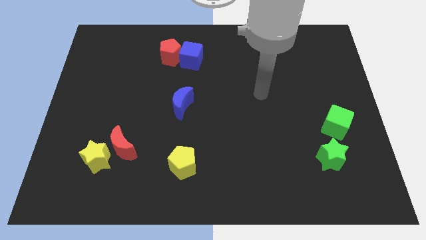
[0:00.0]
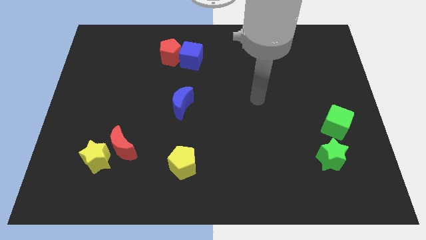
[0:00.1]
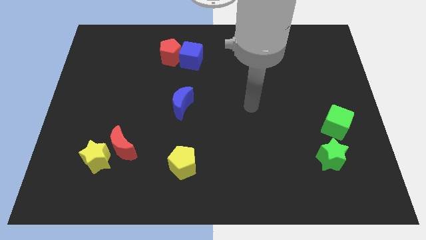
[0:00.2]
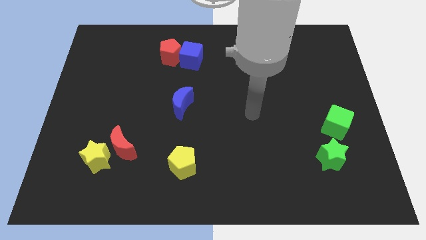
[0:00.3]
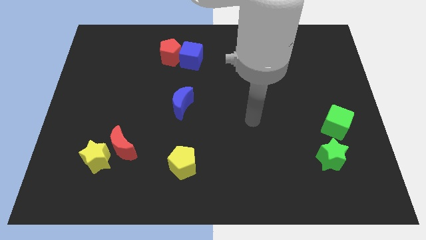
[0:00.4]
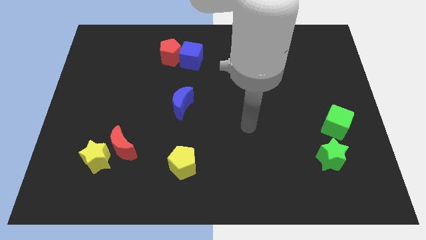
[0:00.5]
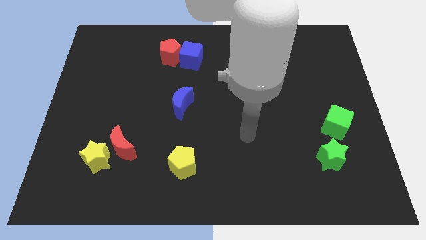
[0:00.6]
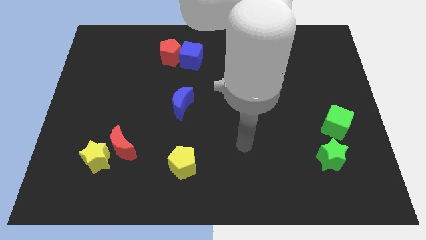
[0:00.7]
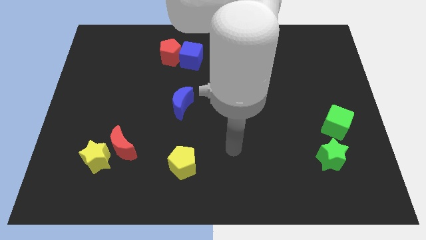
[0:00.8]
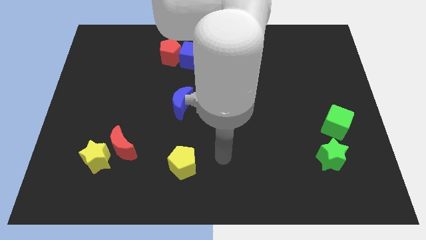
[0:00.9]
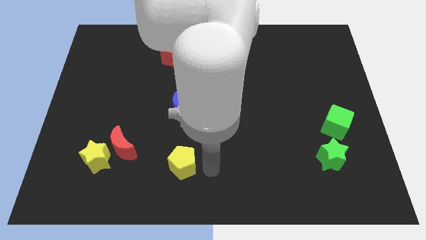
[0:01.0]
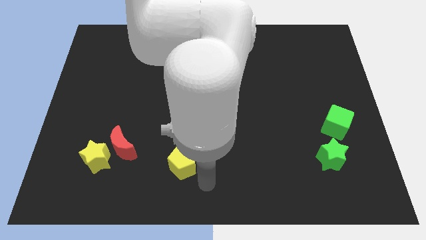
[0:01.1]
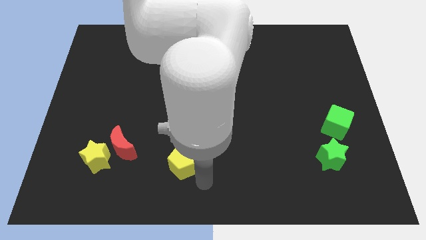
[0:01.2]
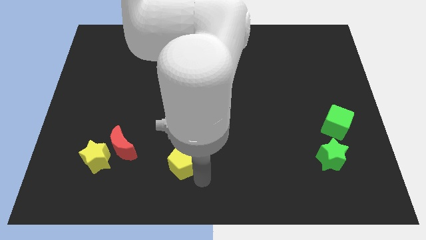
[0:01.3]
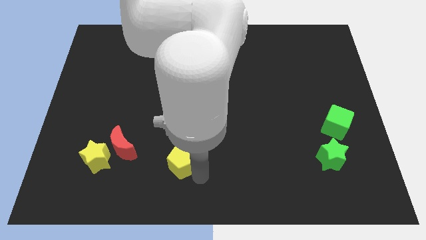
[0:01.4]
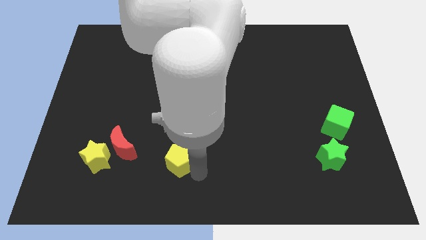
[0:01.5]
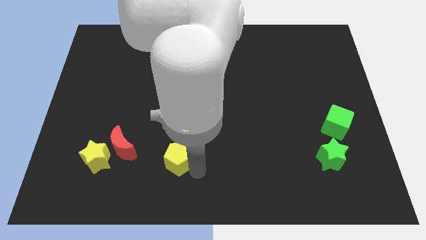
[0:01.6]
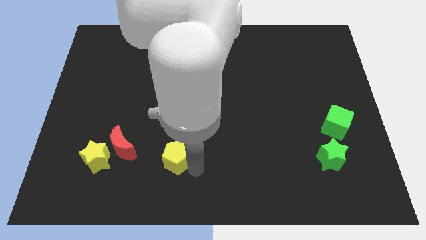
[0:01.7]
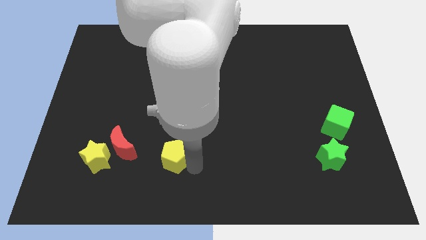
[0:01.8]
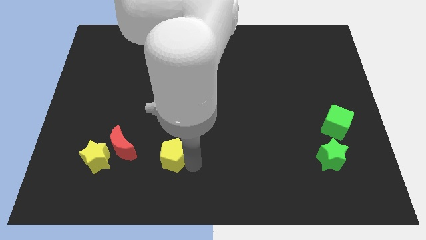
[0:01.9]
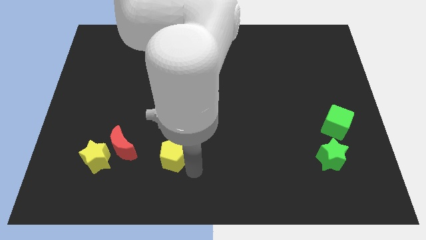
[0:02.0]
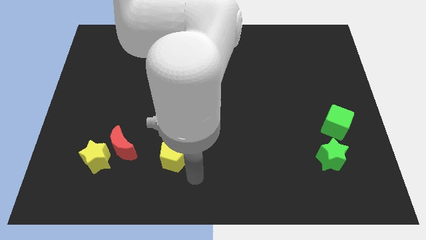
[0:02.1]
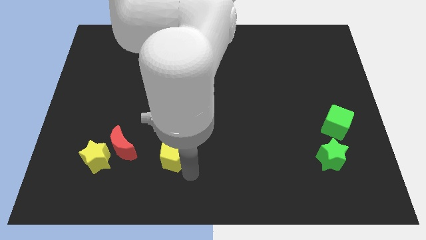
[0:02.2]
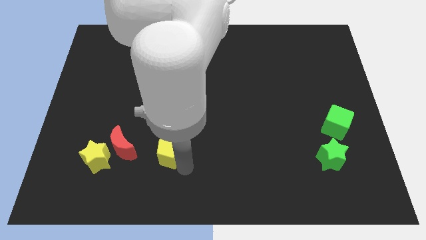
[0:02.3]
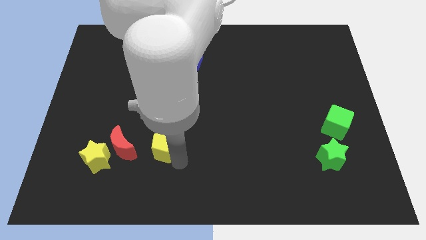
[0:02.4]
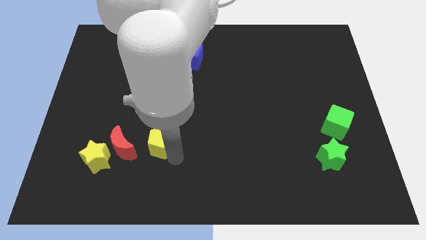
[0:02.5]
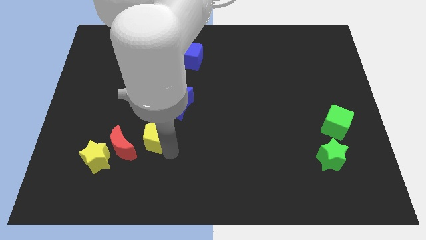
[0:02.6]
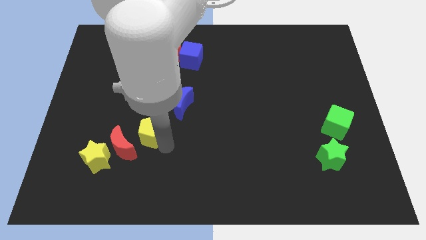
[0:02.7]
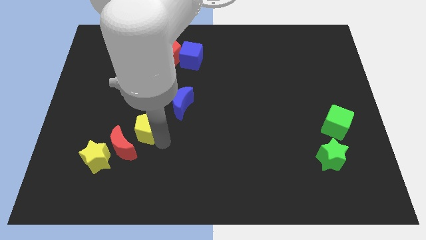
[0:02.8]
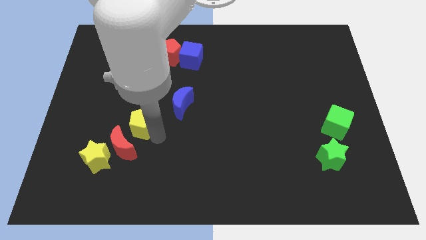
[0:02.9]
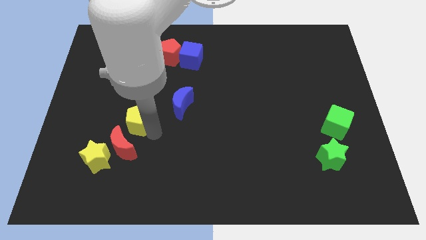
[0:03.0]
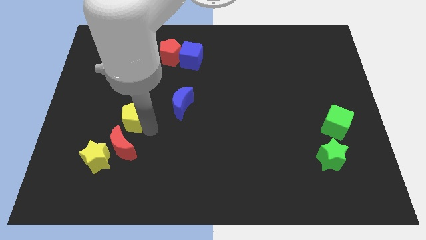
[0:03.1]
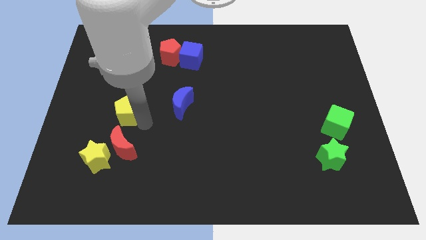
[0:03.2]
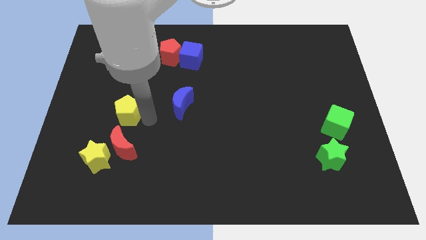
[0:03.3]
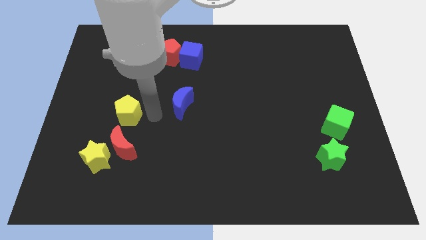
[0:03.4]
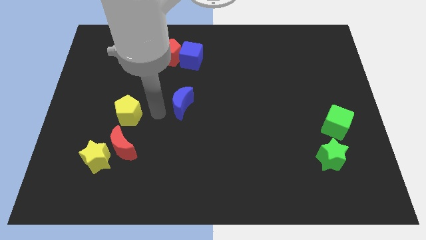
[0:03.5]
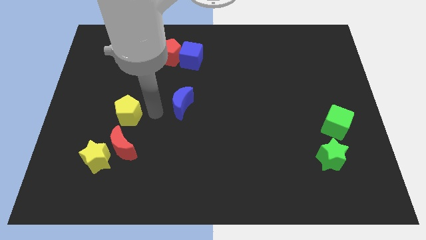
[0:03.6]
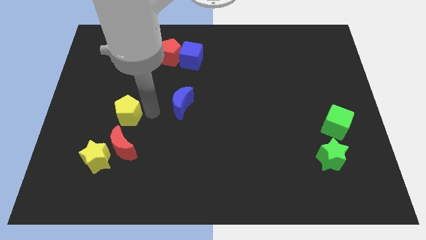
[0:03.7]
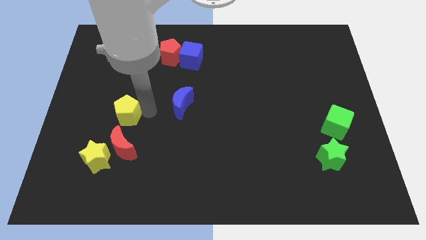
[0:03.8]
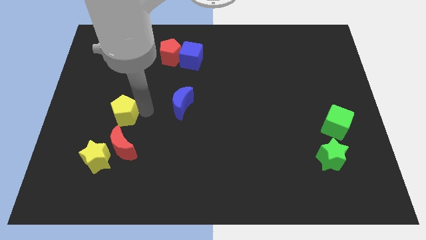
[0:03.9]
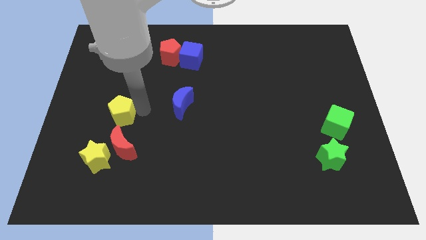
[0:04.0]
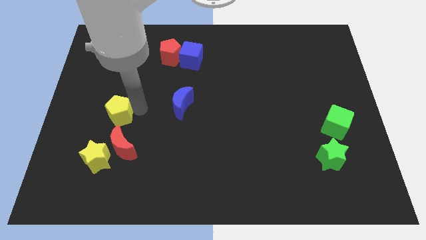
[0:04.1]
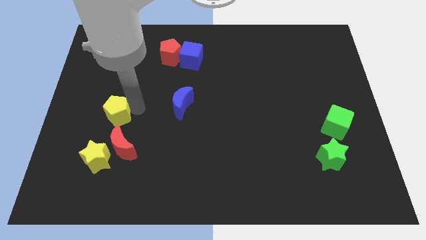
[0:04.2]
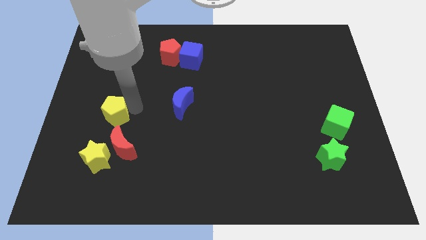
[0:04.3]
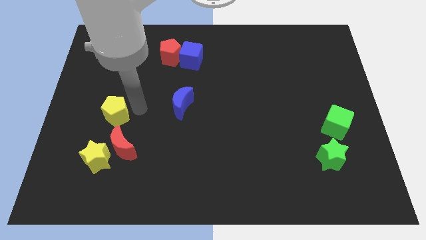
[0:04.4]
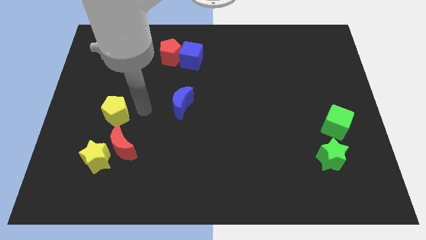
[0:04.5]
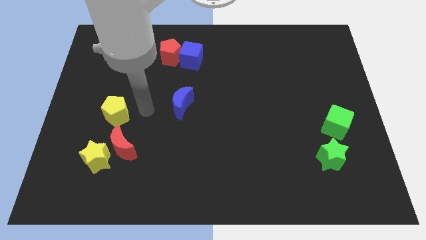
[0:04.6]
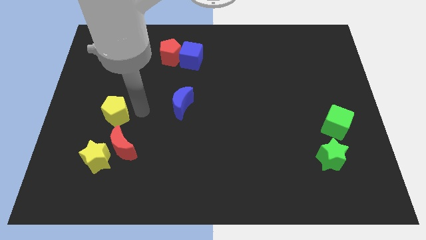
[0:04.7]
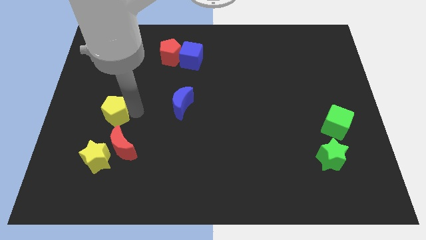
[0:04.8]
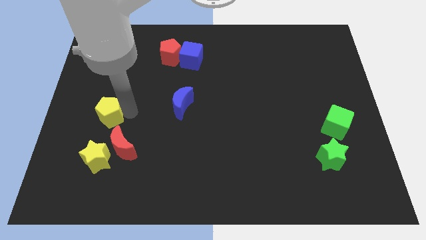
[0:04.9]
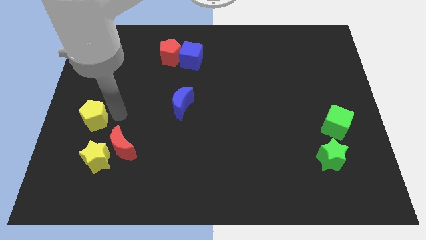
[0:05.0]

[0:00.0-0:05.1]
push the yellow pentagon to the center left

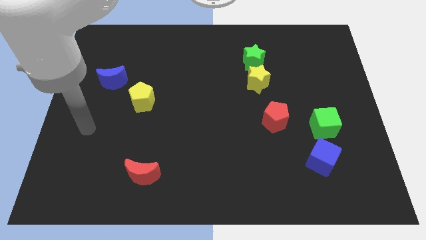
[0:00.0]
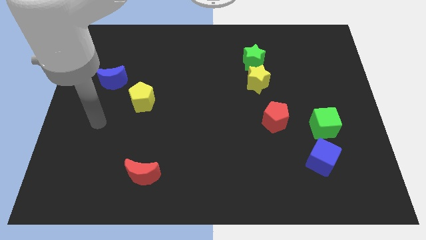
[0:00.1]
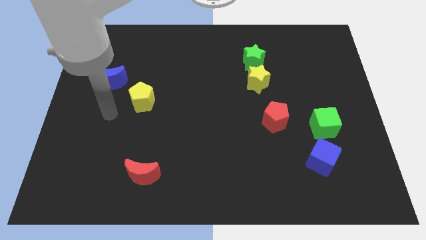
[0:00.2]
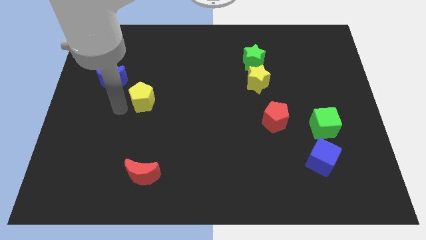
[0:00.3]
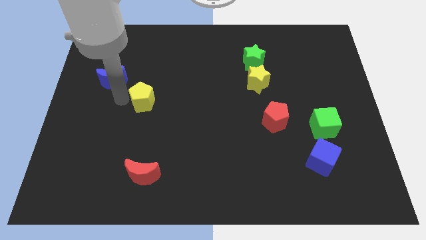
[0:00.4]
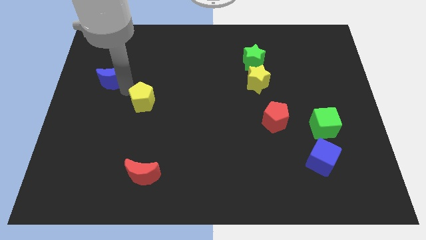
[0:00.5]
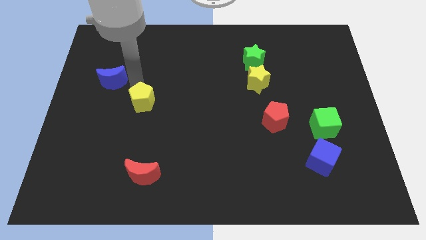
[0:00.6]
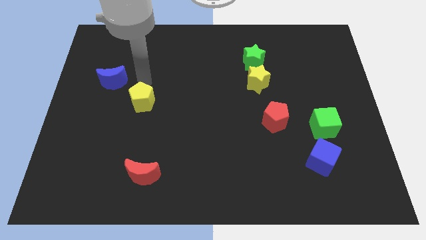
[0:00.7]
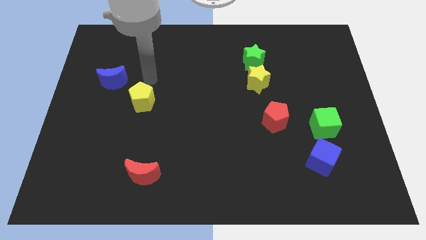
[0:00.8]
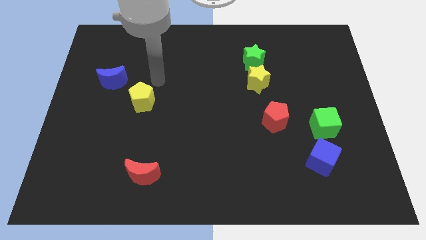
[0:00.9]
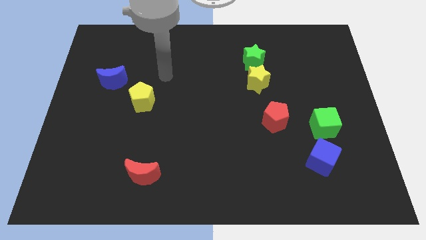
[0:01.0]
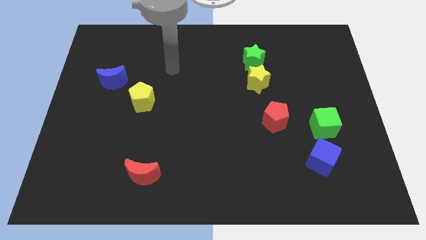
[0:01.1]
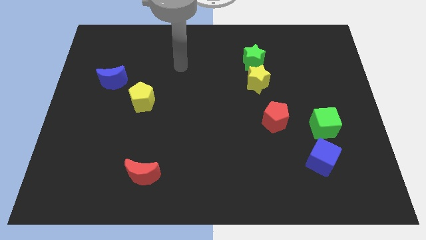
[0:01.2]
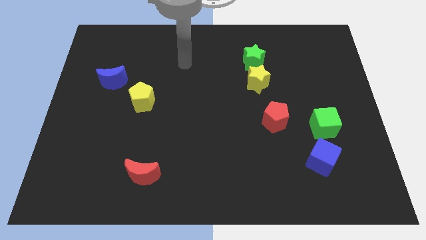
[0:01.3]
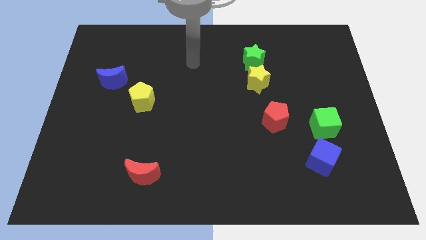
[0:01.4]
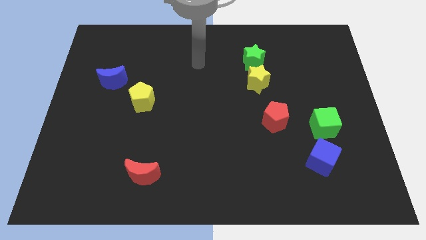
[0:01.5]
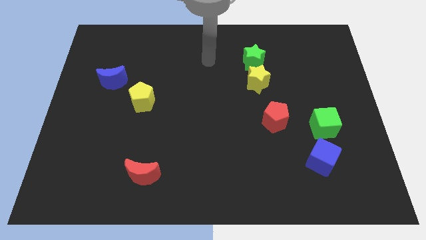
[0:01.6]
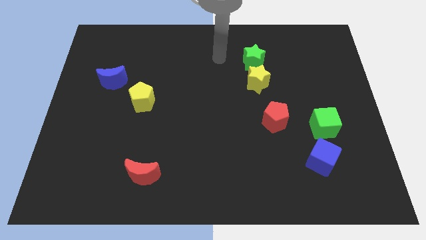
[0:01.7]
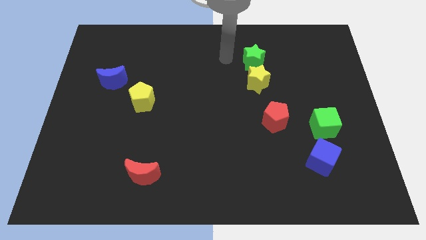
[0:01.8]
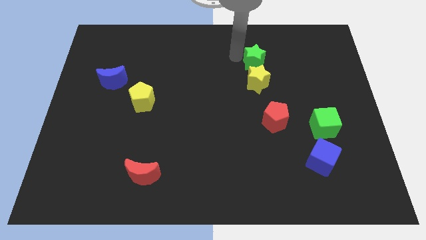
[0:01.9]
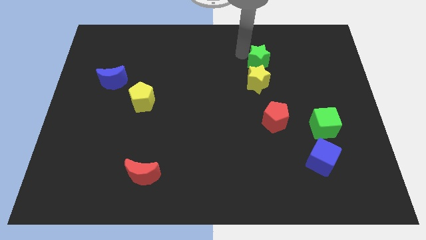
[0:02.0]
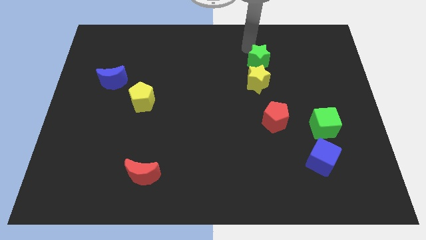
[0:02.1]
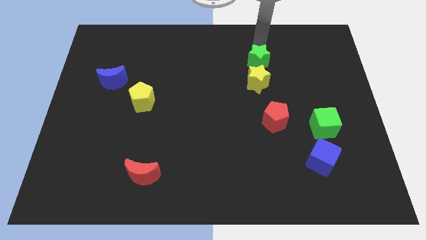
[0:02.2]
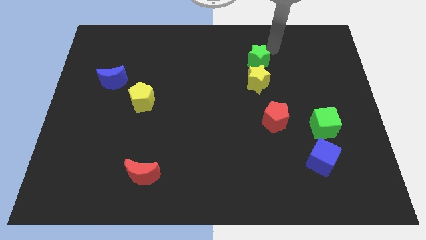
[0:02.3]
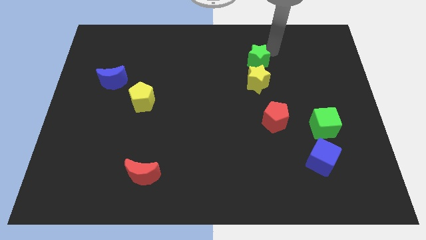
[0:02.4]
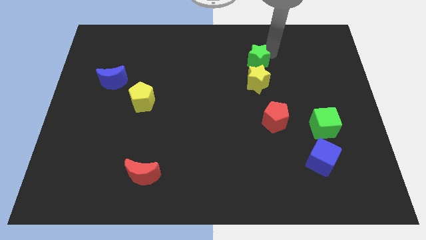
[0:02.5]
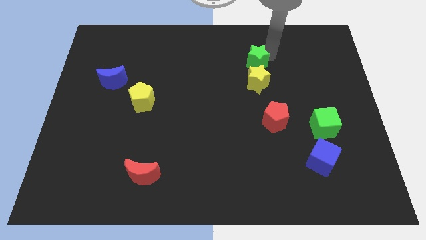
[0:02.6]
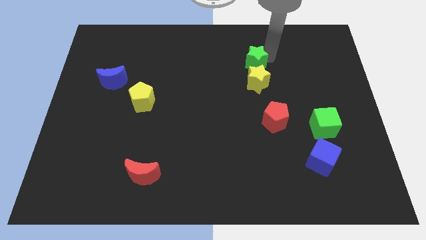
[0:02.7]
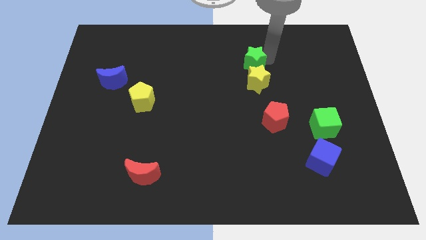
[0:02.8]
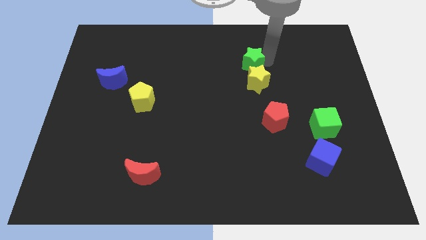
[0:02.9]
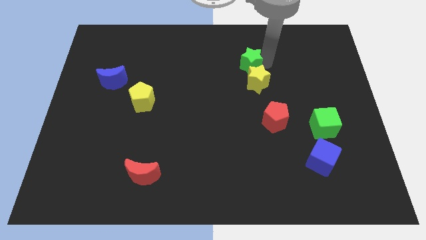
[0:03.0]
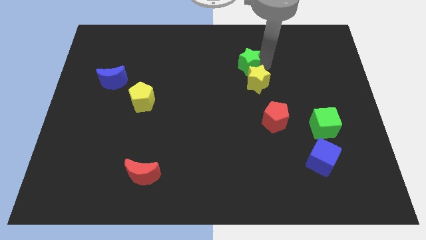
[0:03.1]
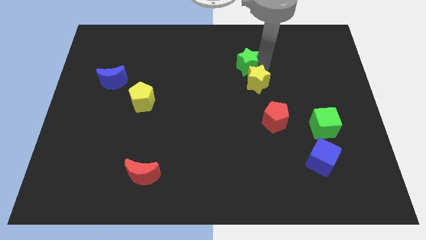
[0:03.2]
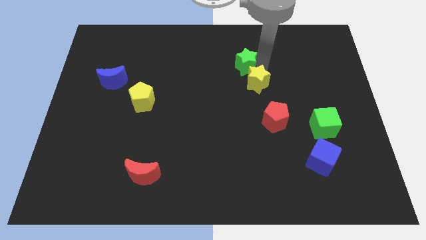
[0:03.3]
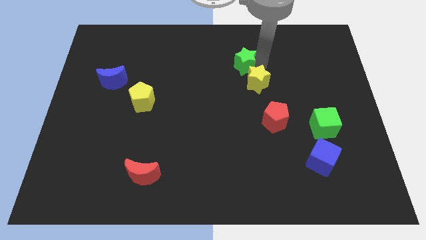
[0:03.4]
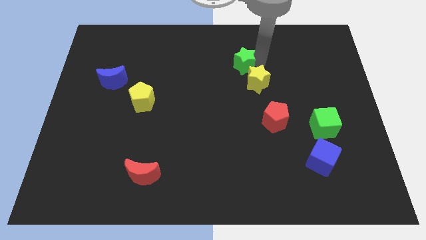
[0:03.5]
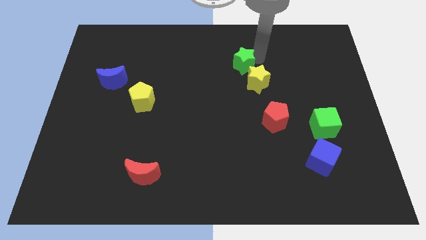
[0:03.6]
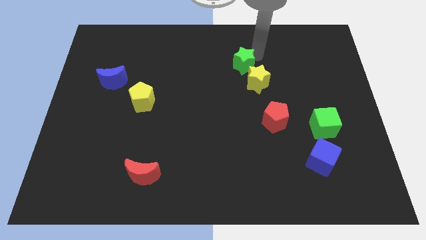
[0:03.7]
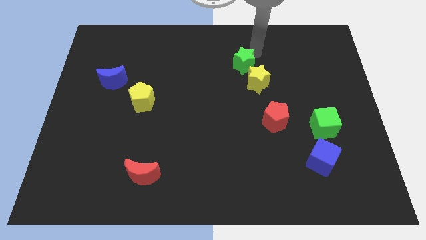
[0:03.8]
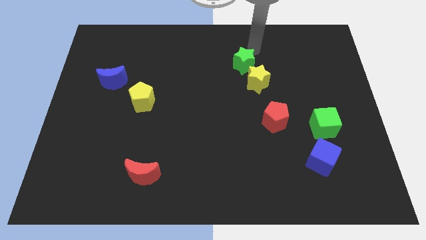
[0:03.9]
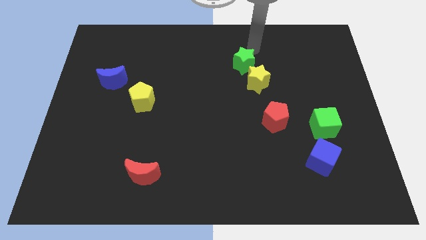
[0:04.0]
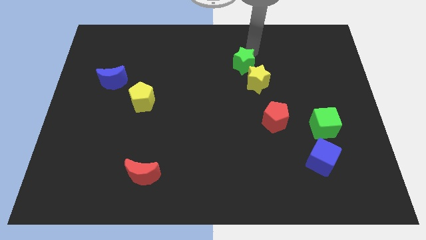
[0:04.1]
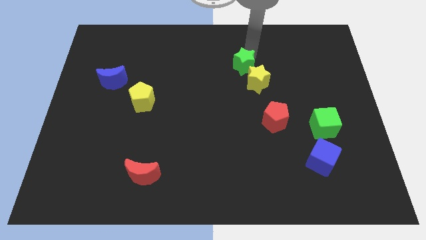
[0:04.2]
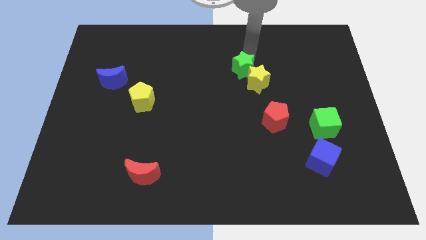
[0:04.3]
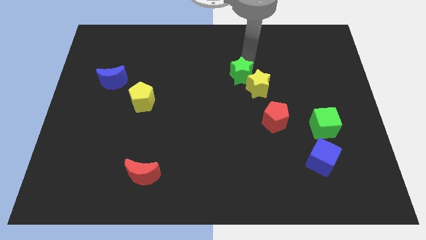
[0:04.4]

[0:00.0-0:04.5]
push the green star to the center of the board
